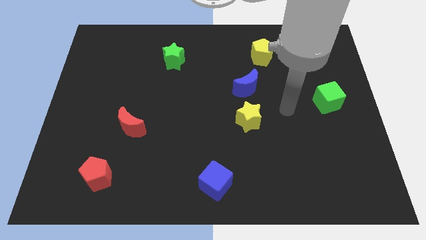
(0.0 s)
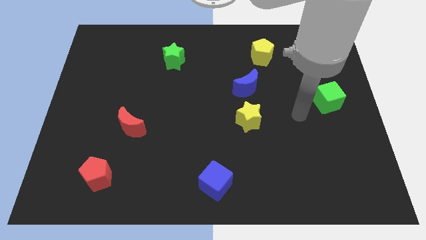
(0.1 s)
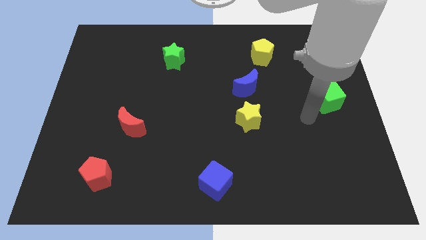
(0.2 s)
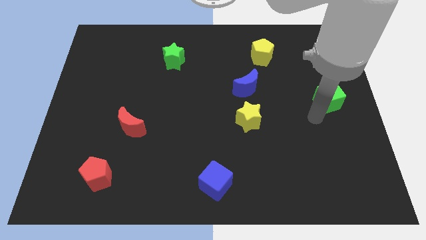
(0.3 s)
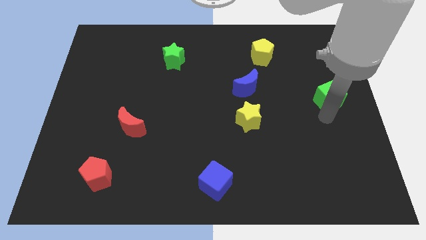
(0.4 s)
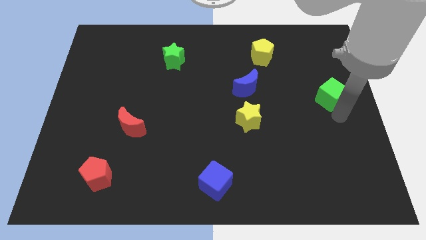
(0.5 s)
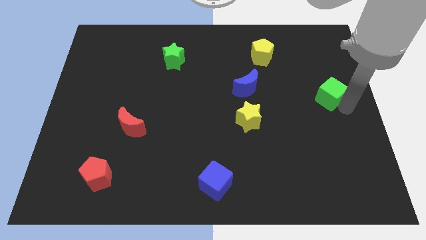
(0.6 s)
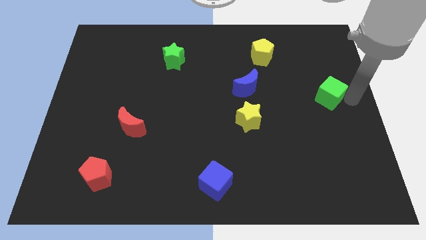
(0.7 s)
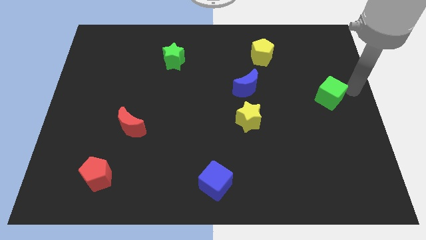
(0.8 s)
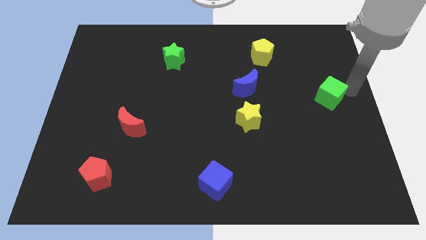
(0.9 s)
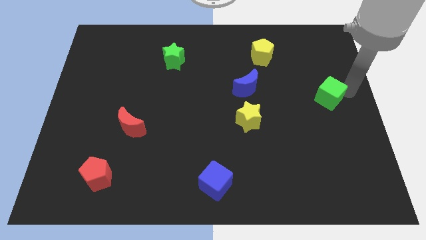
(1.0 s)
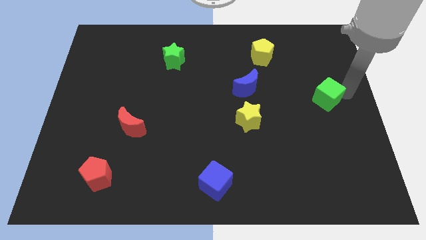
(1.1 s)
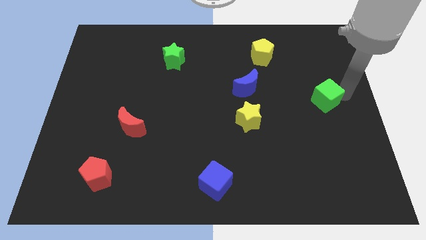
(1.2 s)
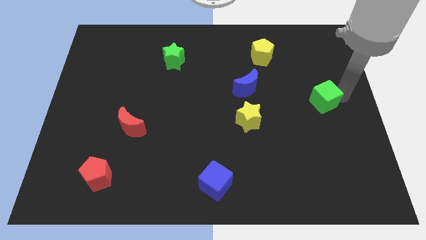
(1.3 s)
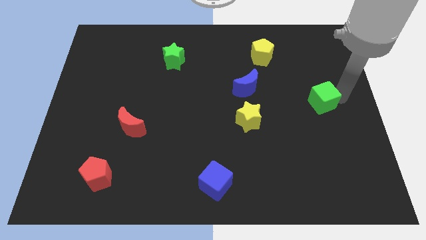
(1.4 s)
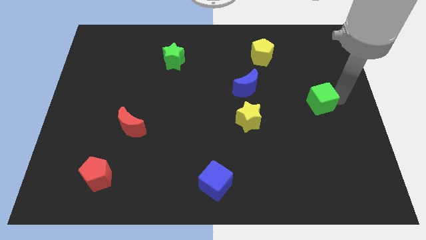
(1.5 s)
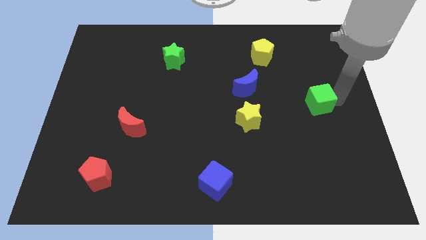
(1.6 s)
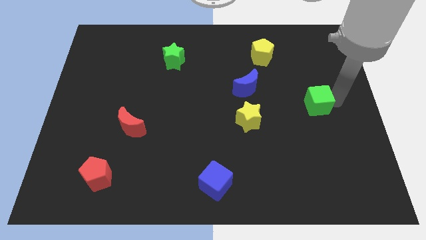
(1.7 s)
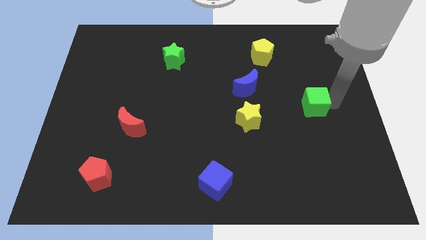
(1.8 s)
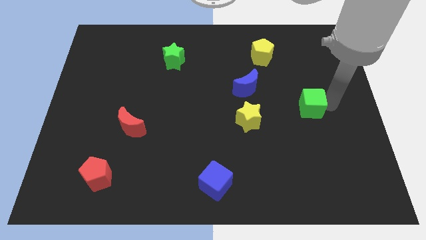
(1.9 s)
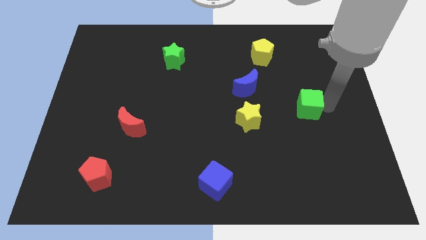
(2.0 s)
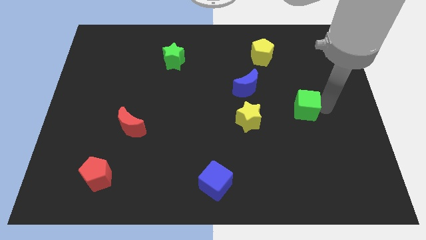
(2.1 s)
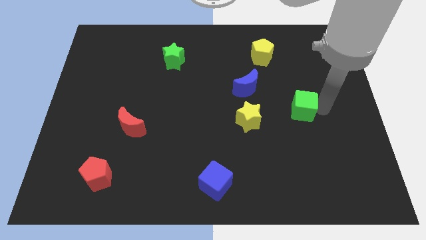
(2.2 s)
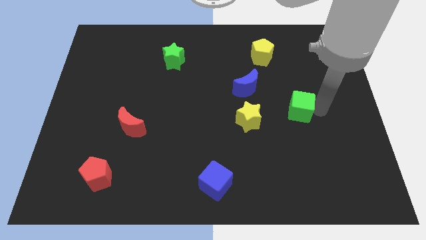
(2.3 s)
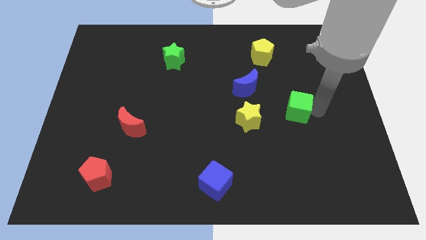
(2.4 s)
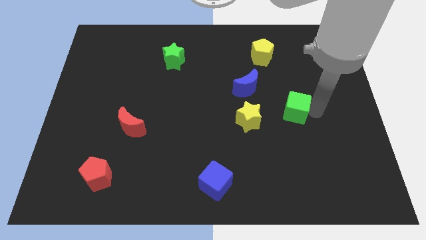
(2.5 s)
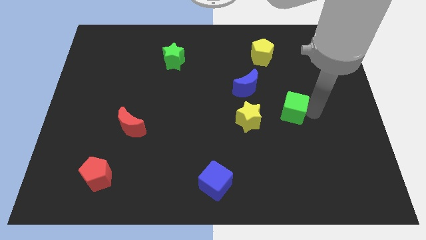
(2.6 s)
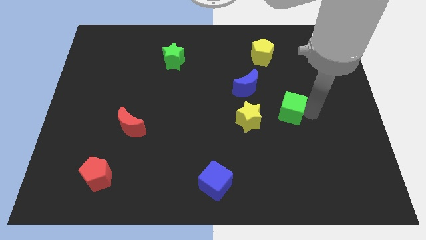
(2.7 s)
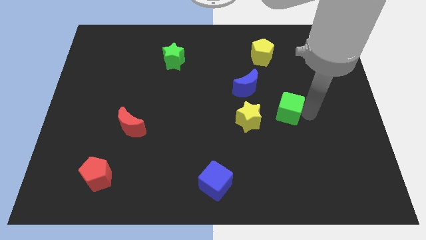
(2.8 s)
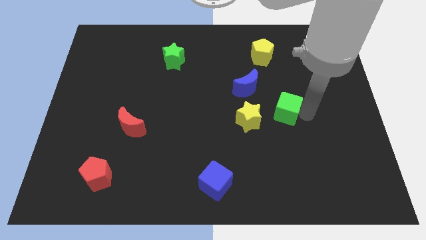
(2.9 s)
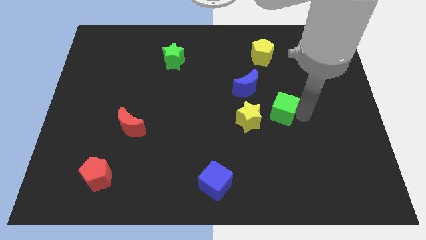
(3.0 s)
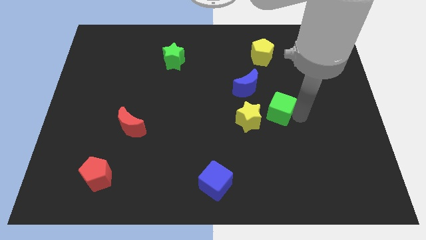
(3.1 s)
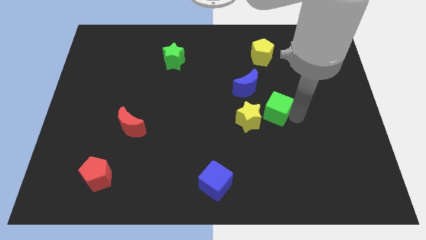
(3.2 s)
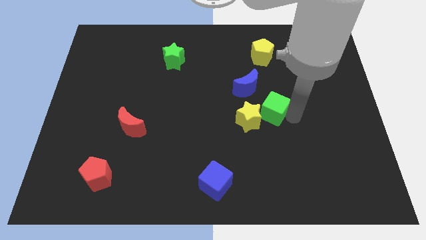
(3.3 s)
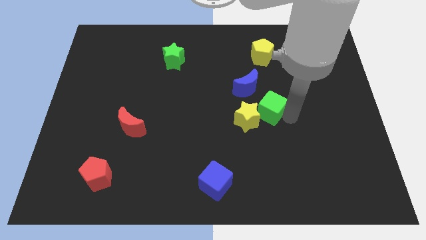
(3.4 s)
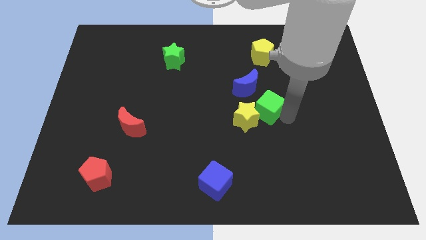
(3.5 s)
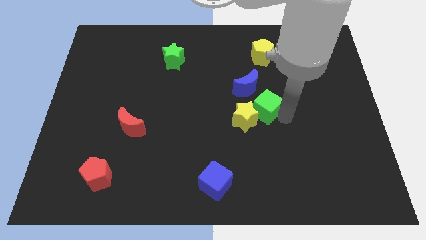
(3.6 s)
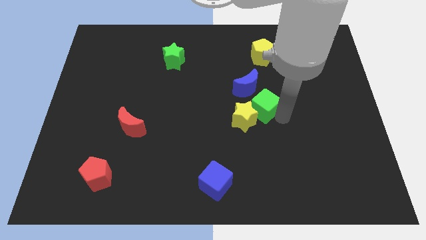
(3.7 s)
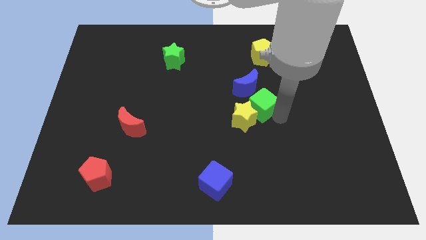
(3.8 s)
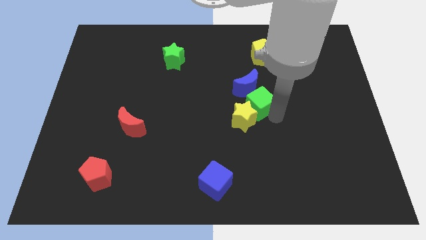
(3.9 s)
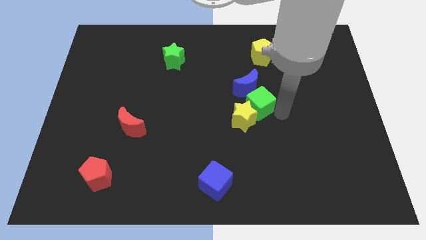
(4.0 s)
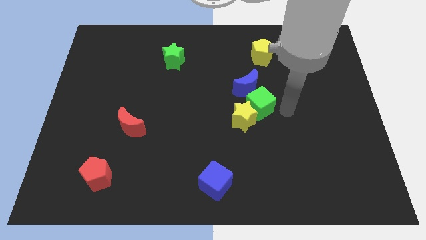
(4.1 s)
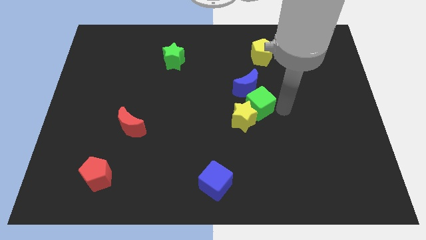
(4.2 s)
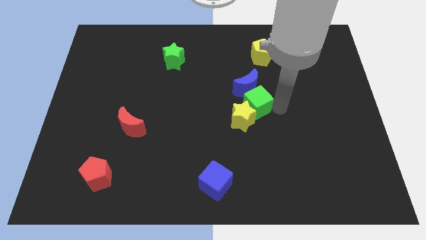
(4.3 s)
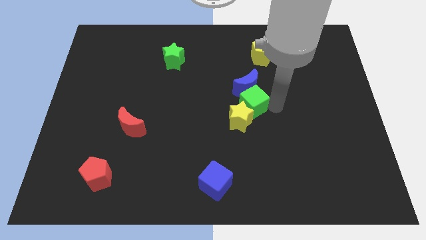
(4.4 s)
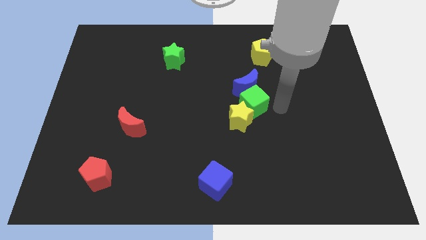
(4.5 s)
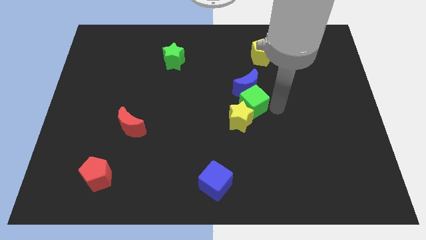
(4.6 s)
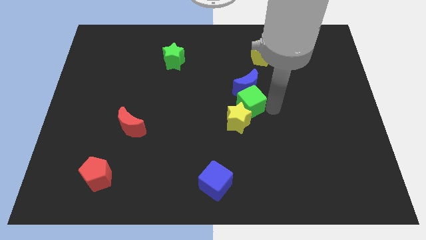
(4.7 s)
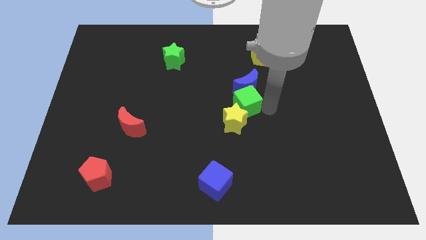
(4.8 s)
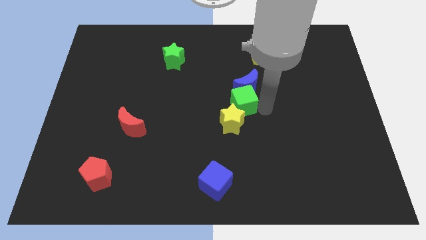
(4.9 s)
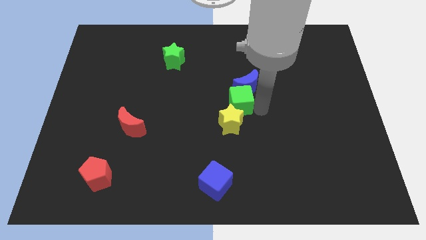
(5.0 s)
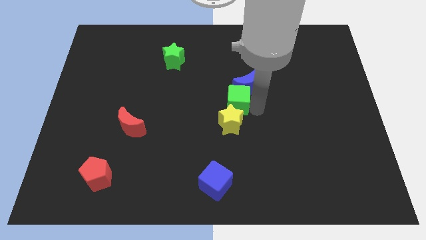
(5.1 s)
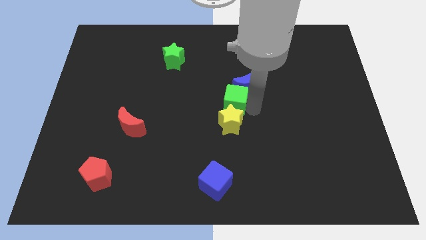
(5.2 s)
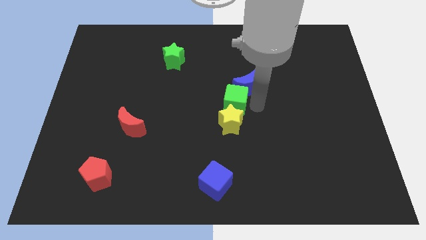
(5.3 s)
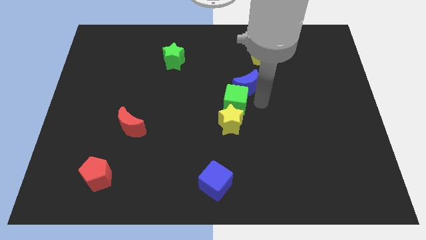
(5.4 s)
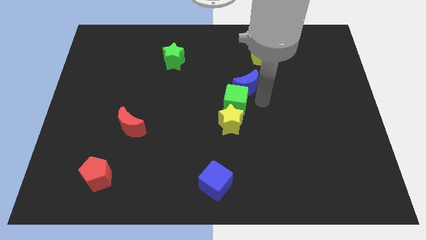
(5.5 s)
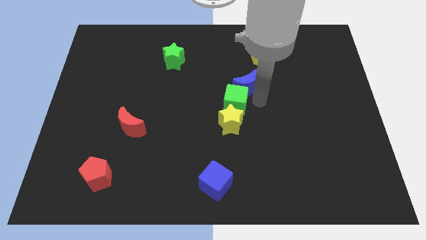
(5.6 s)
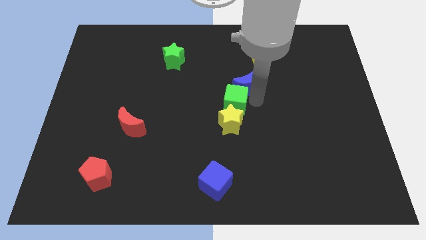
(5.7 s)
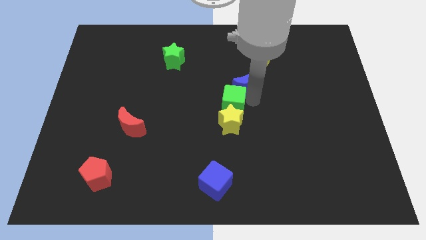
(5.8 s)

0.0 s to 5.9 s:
move the green cube diagonally up and to the left of the yellow star

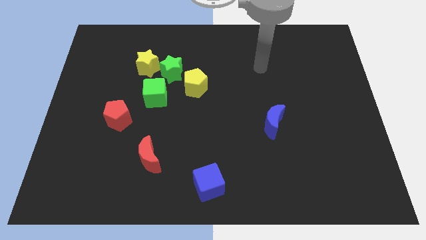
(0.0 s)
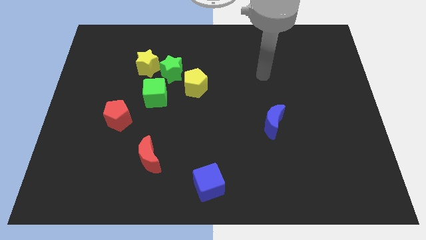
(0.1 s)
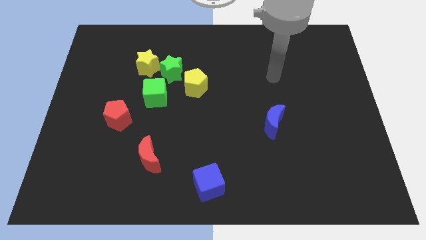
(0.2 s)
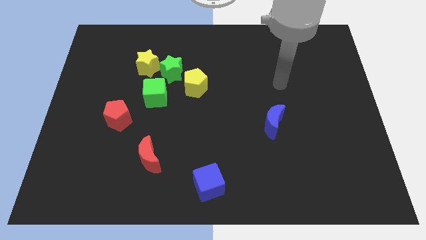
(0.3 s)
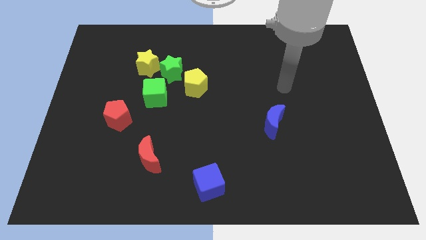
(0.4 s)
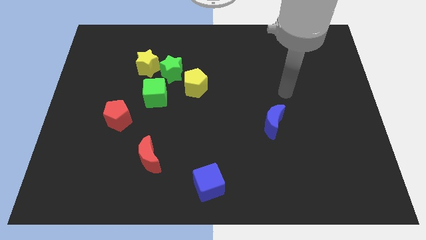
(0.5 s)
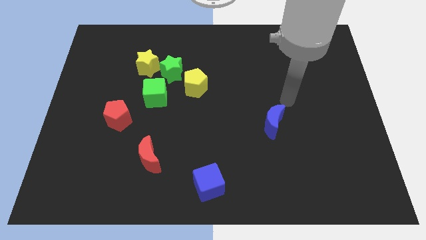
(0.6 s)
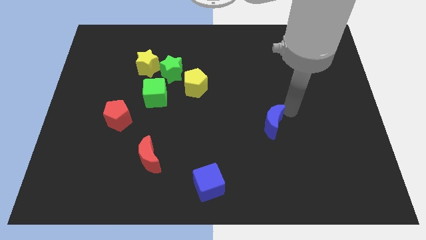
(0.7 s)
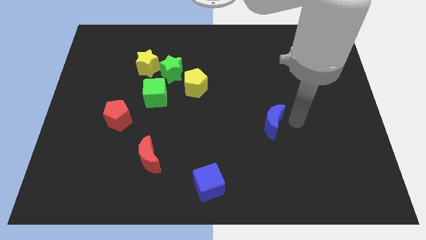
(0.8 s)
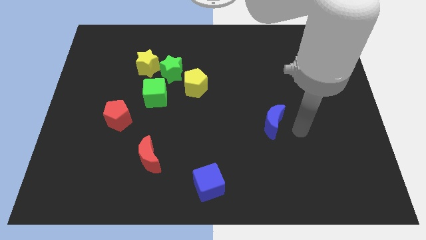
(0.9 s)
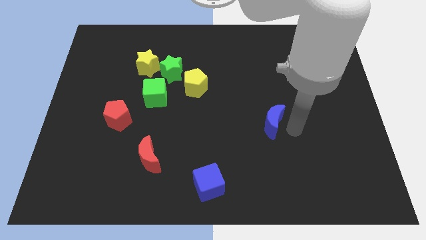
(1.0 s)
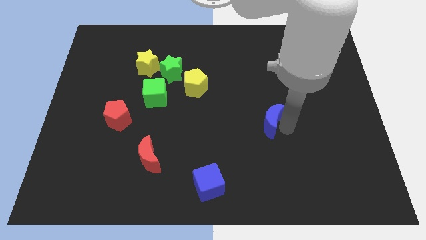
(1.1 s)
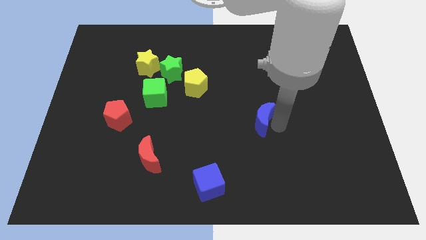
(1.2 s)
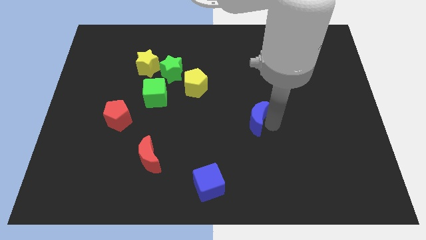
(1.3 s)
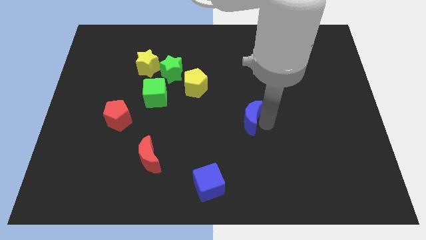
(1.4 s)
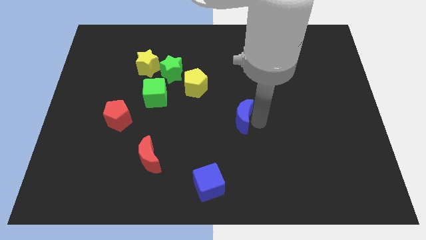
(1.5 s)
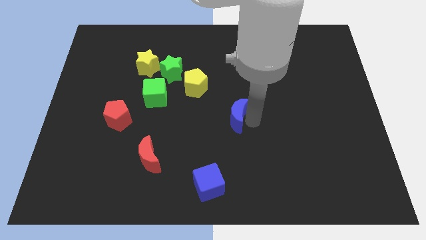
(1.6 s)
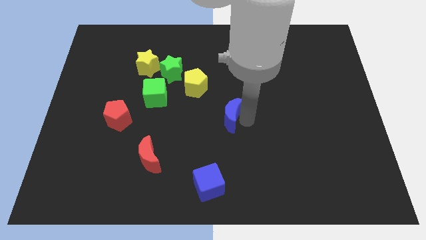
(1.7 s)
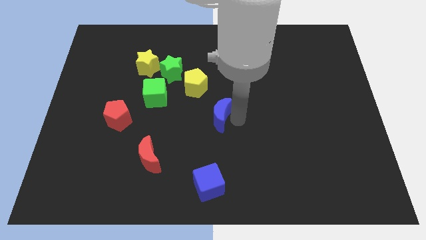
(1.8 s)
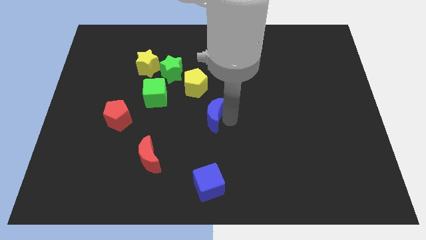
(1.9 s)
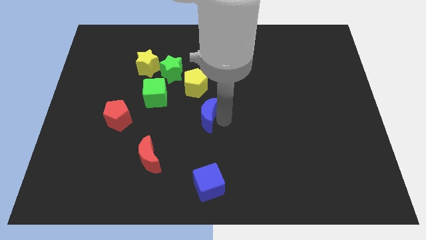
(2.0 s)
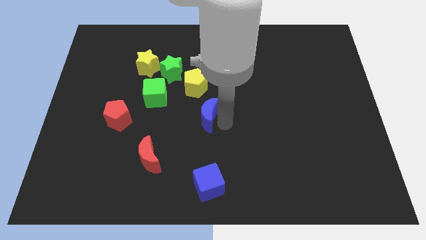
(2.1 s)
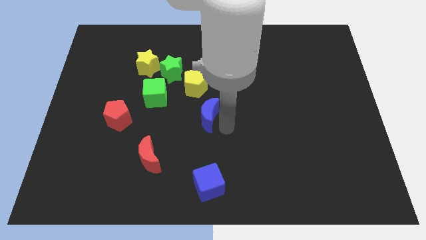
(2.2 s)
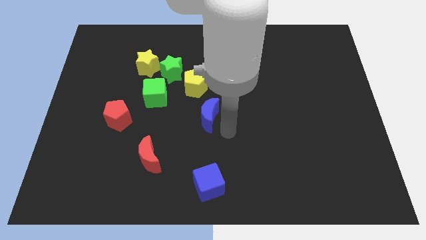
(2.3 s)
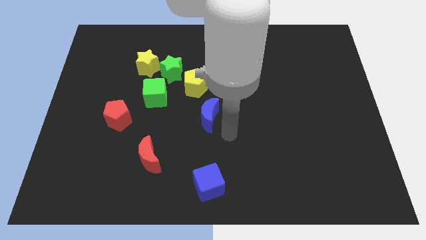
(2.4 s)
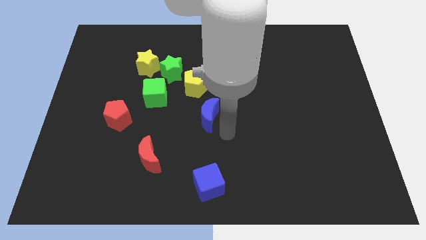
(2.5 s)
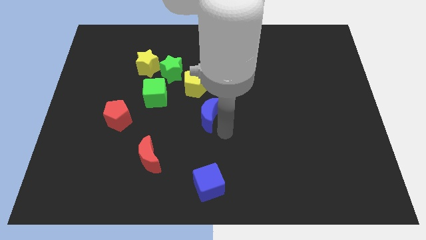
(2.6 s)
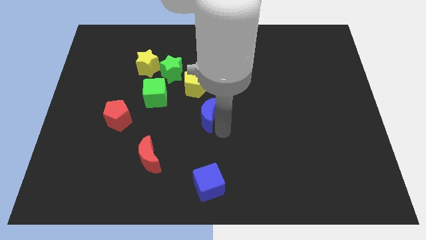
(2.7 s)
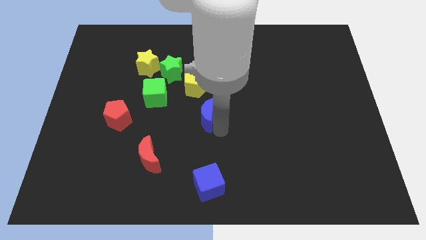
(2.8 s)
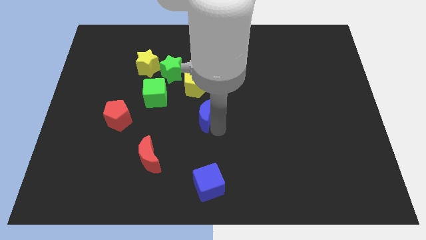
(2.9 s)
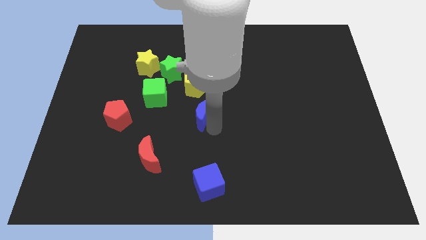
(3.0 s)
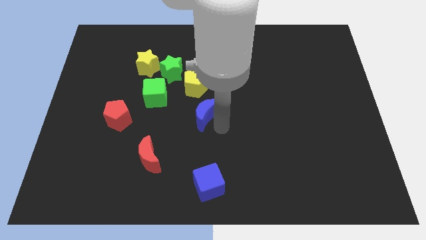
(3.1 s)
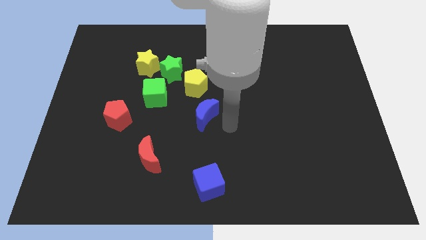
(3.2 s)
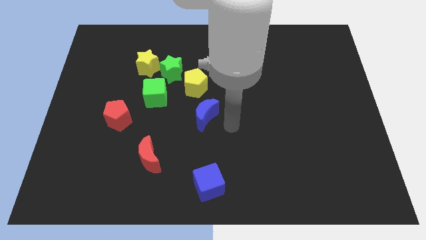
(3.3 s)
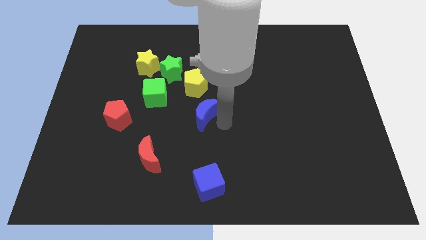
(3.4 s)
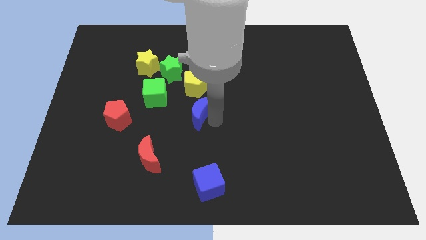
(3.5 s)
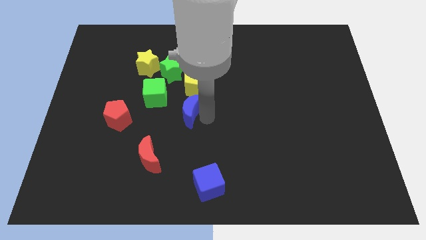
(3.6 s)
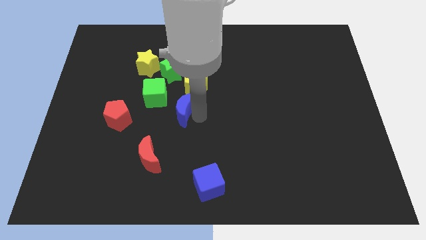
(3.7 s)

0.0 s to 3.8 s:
push the blue moon to the bottom of the green star
